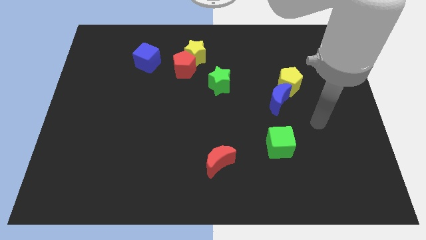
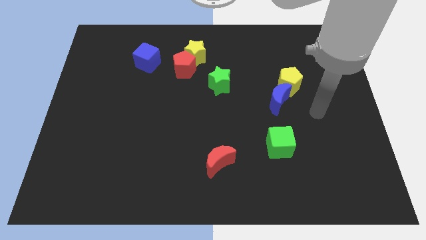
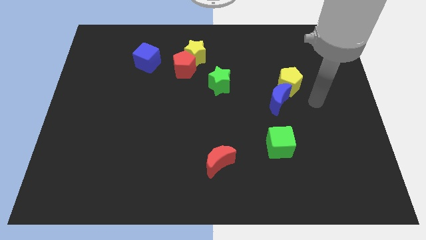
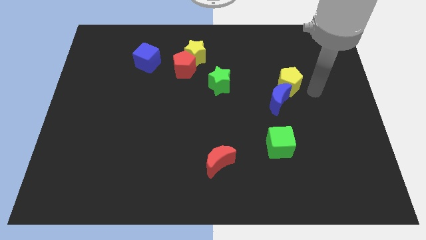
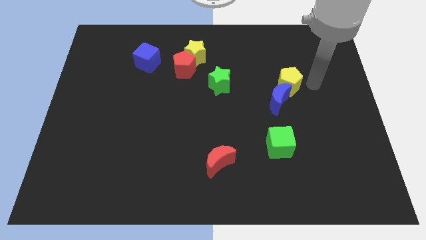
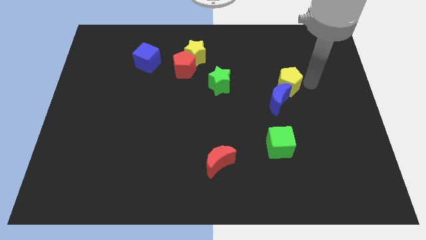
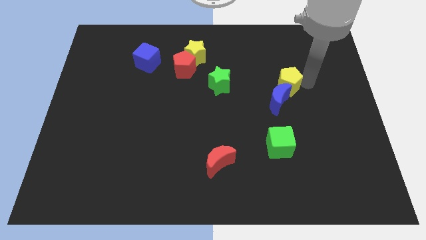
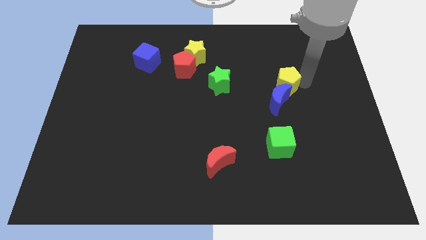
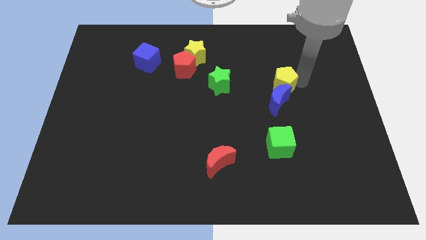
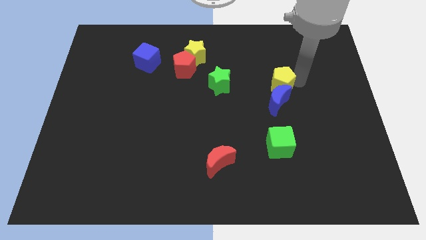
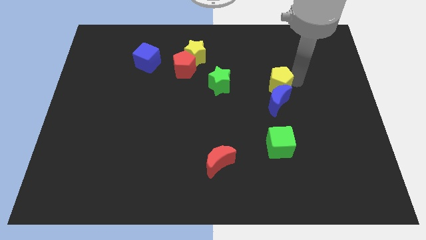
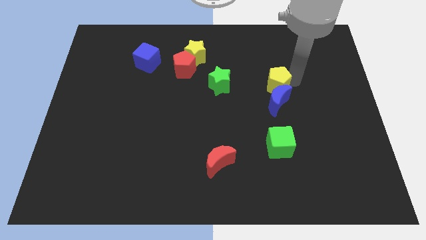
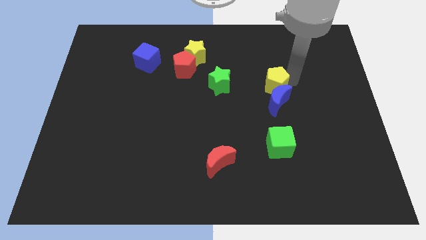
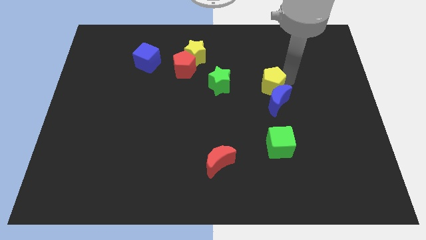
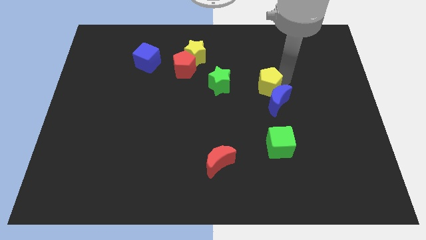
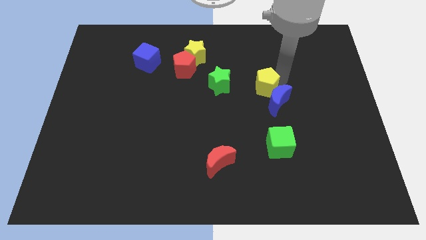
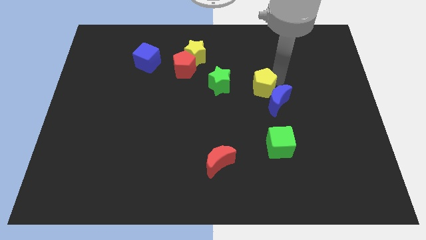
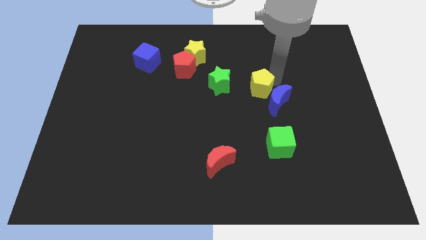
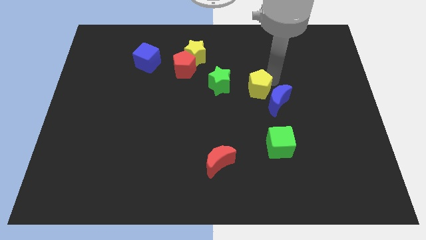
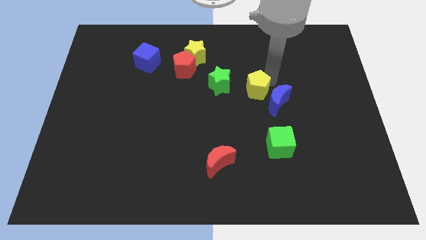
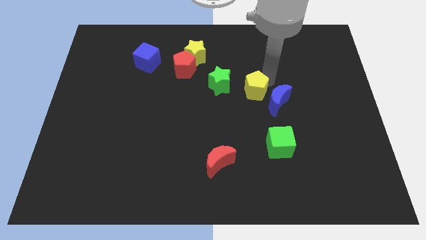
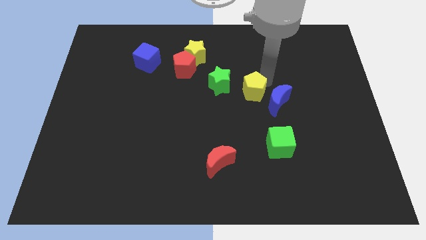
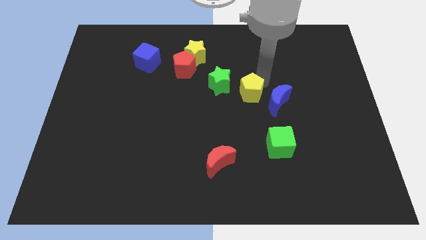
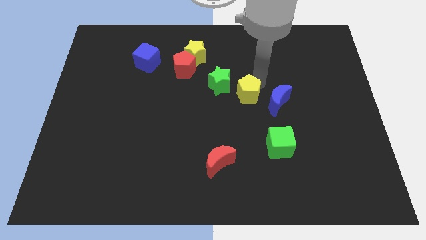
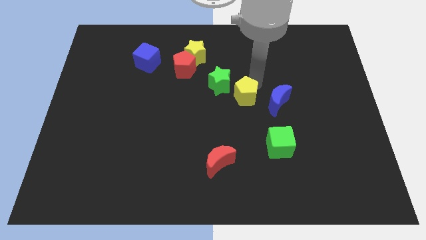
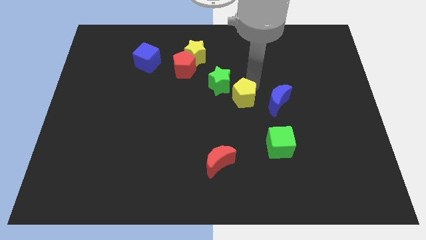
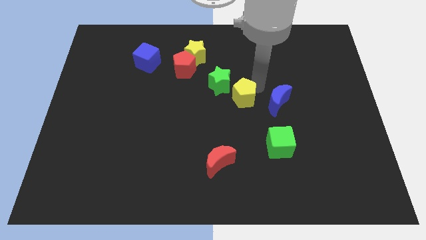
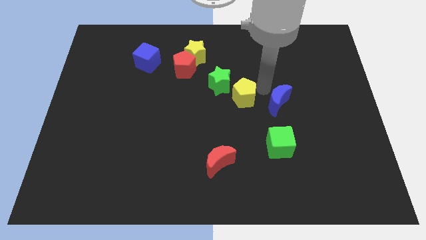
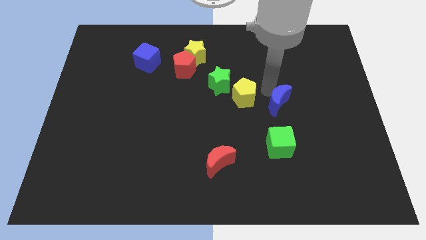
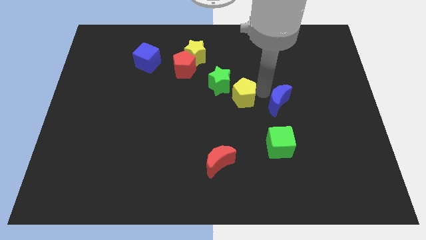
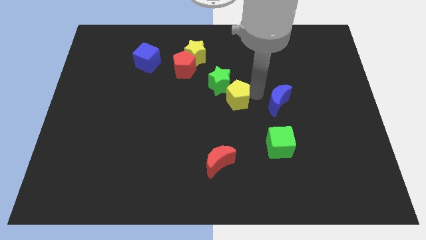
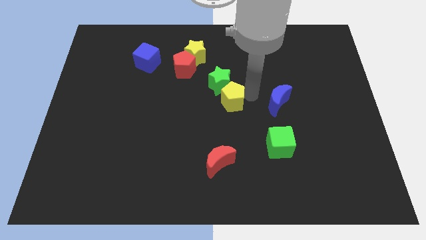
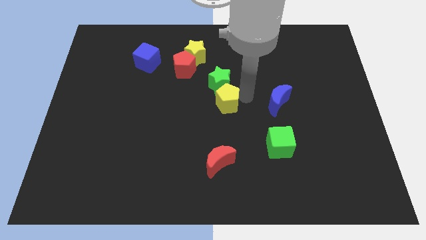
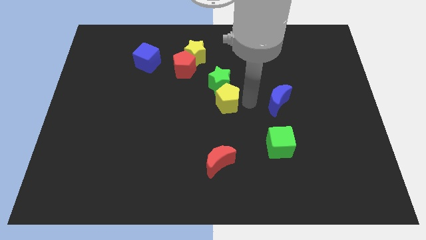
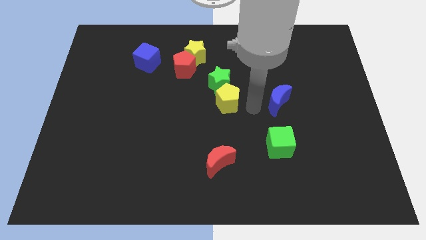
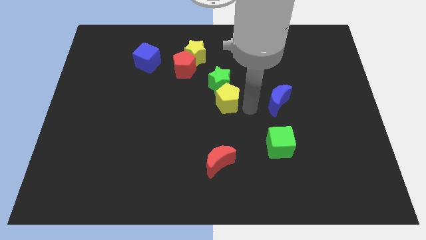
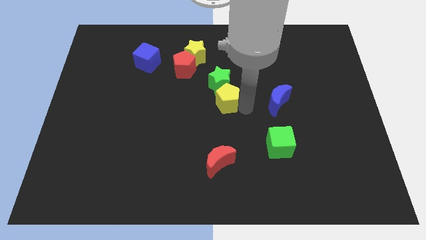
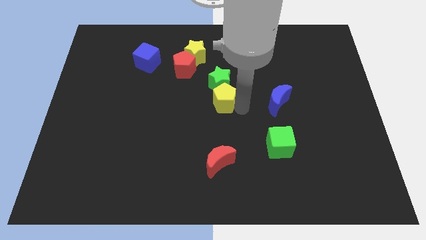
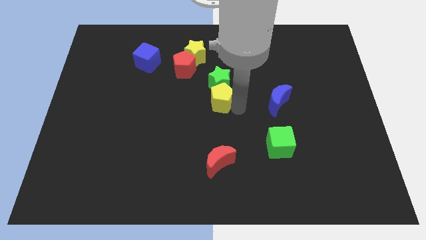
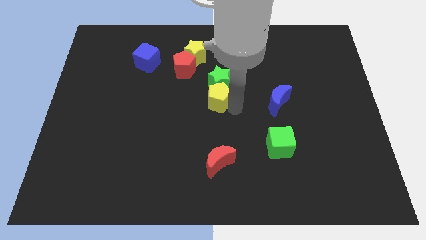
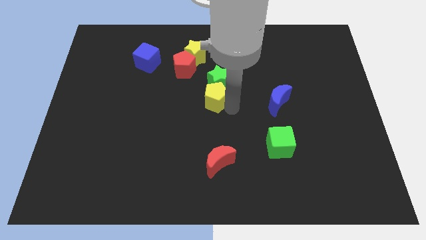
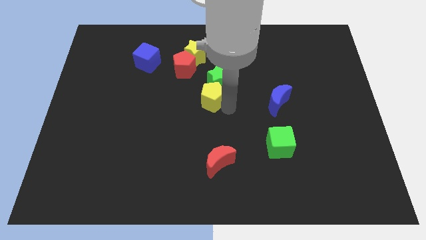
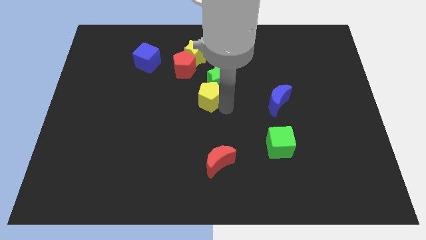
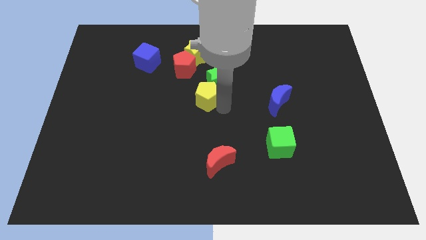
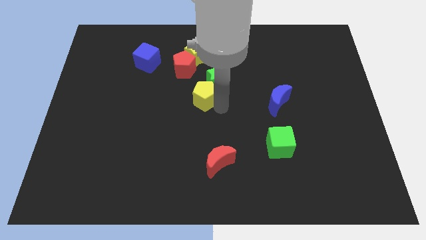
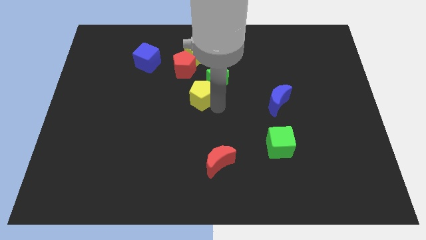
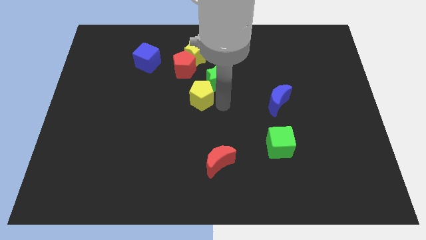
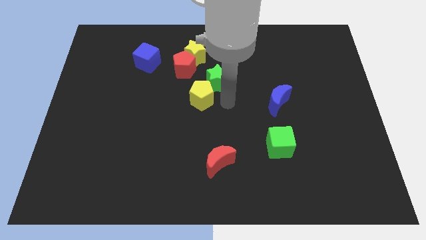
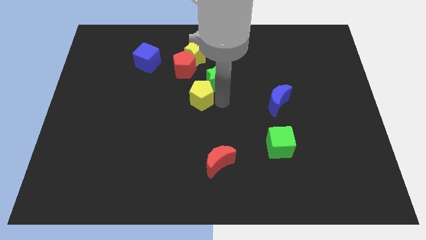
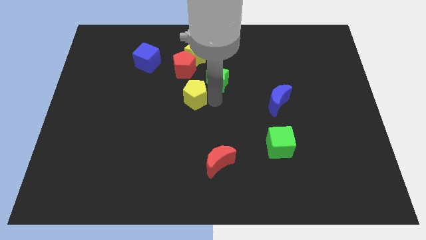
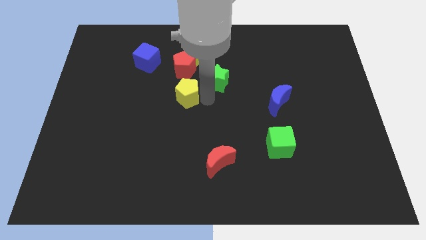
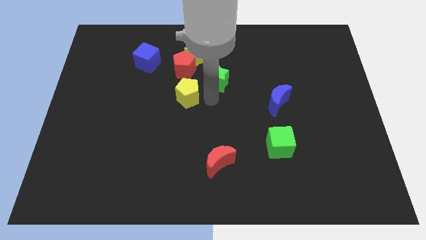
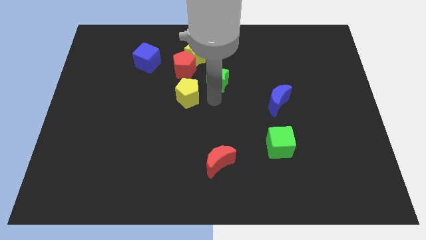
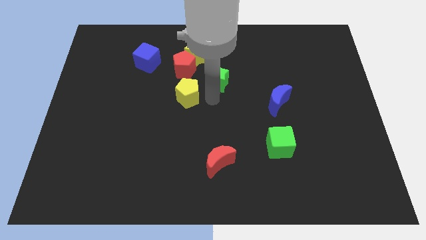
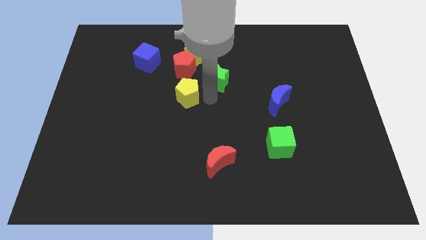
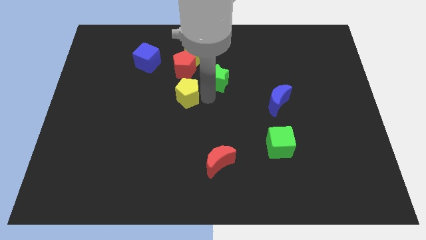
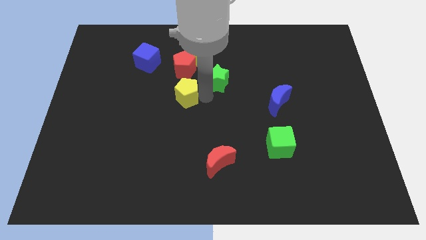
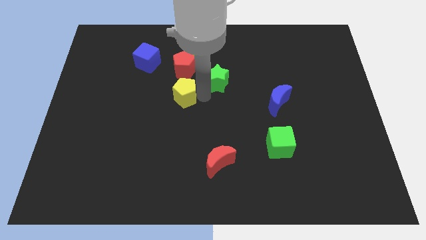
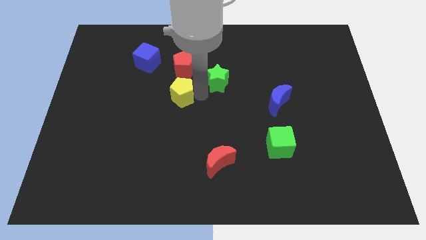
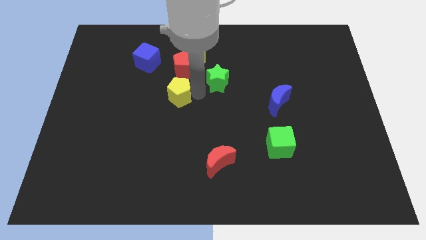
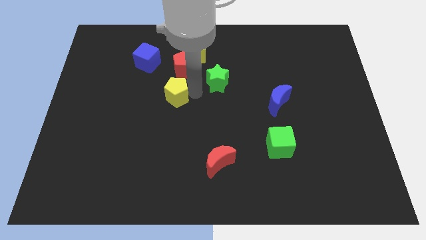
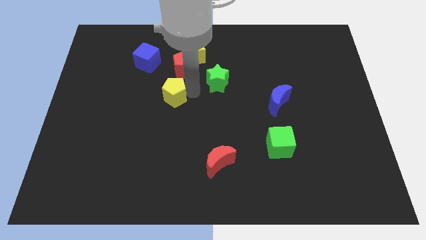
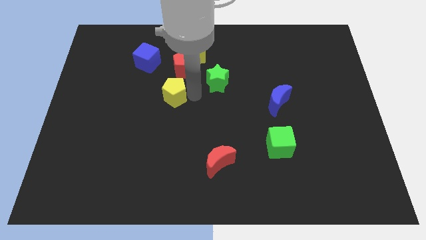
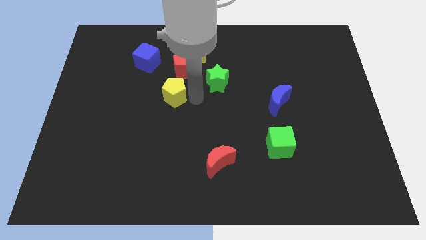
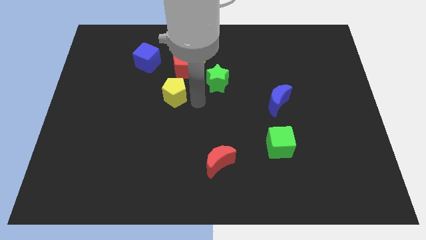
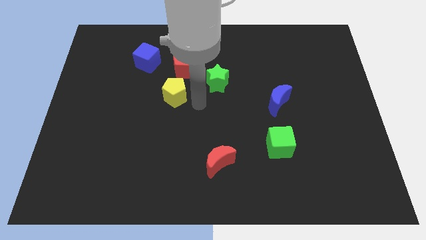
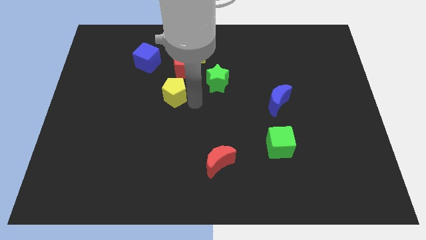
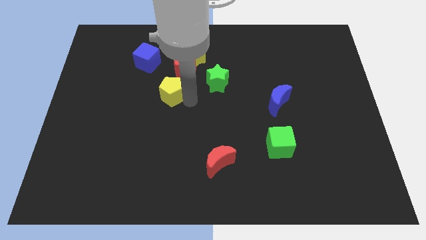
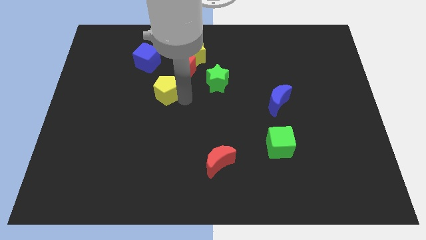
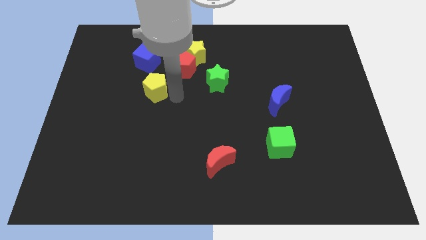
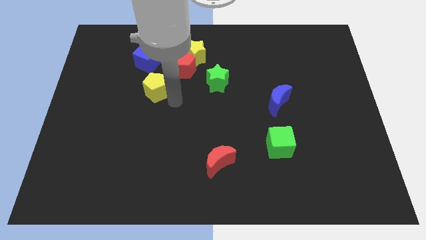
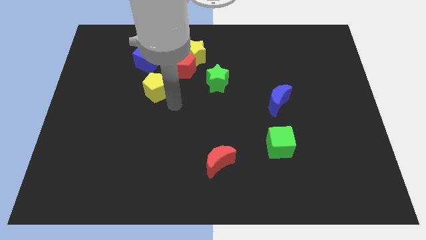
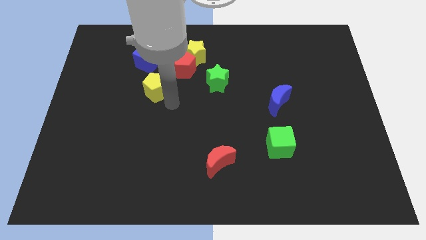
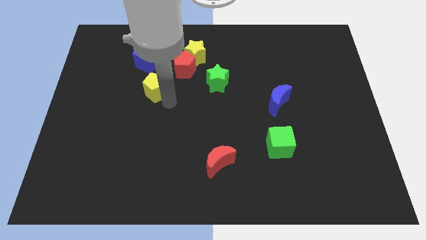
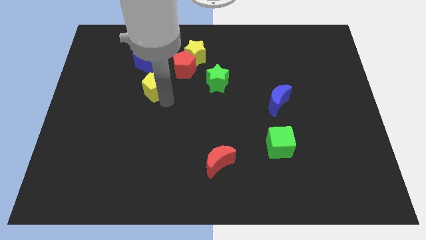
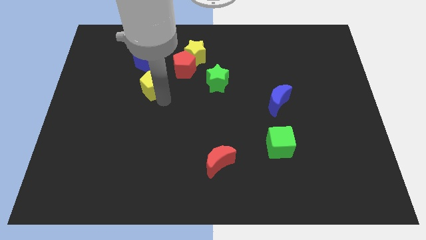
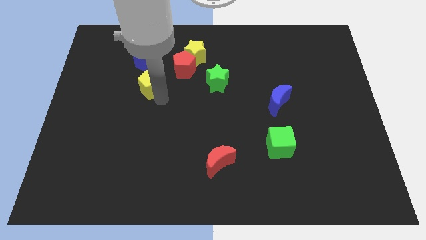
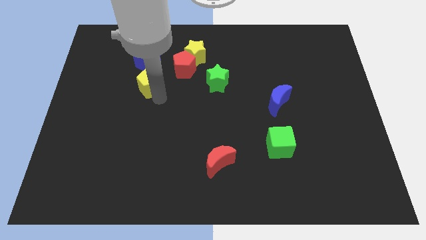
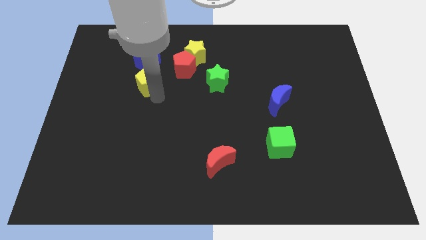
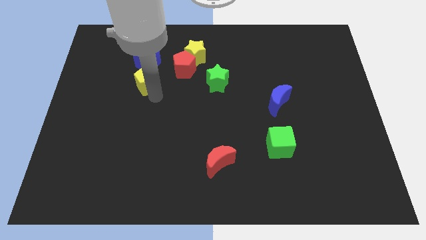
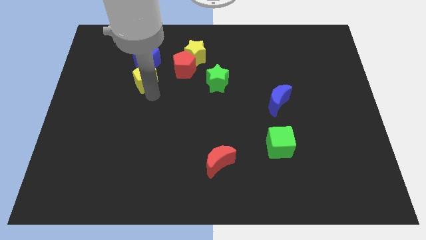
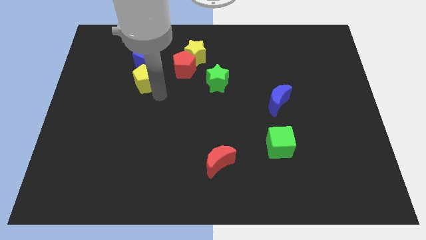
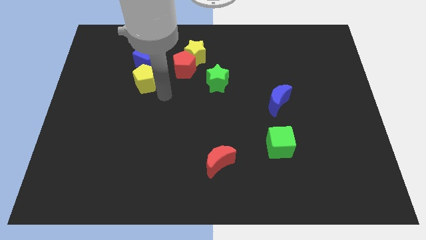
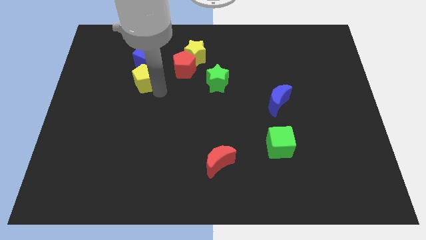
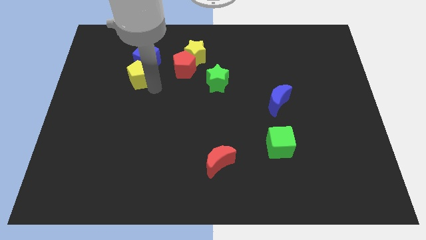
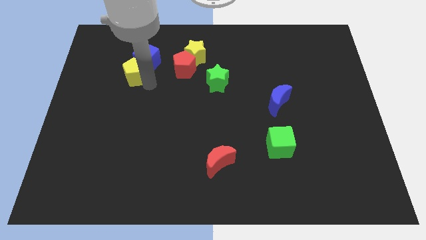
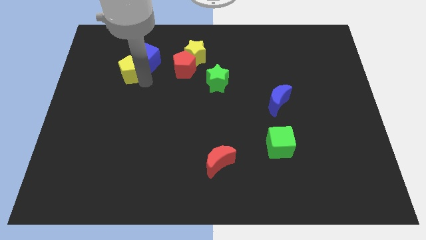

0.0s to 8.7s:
put the yellow pentagon just left of the blue cube
